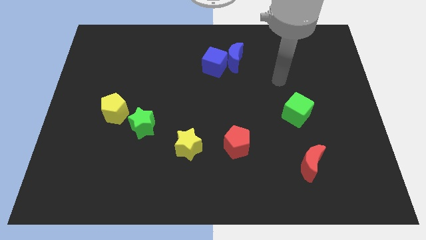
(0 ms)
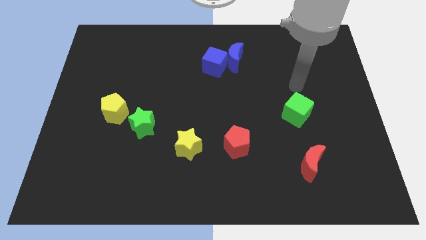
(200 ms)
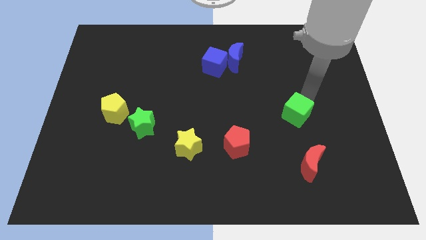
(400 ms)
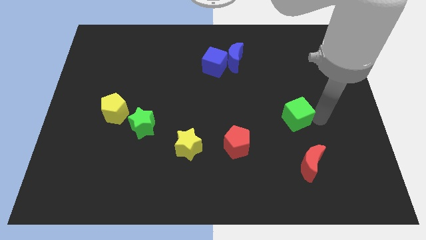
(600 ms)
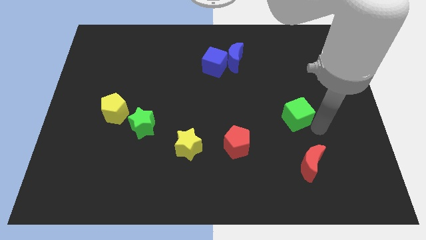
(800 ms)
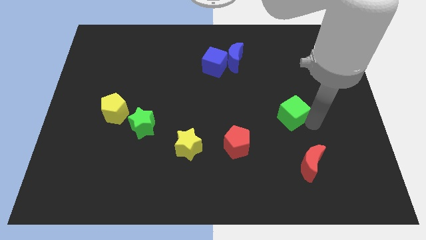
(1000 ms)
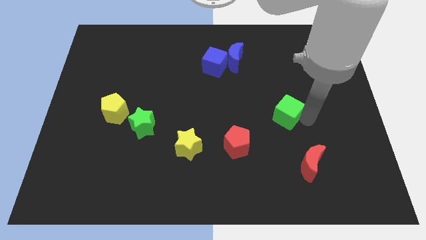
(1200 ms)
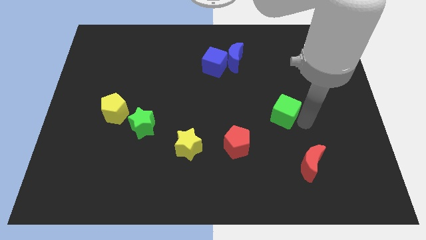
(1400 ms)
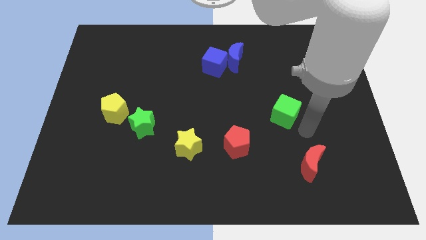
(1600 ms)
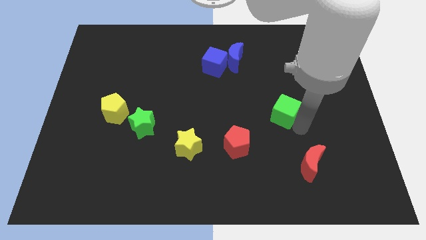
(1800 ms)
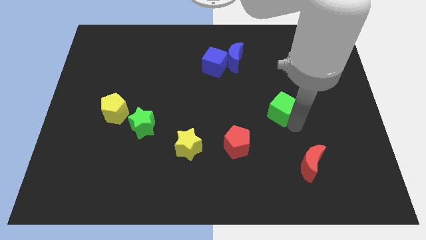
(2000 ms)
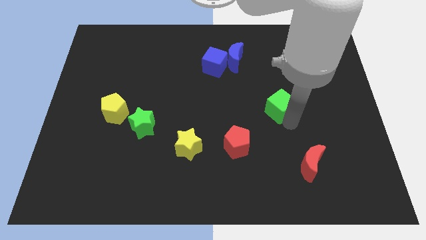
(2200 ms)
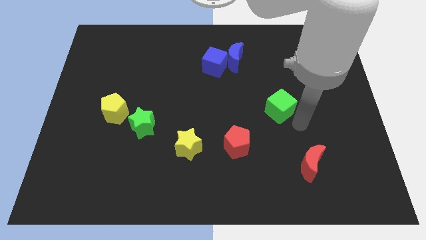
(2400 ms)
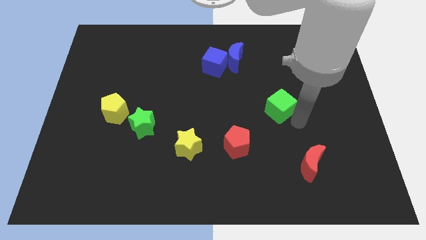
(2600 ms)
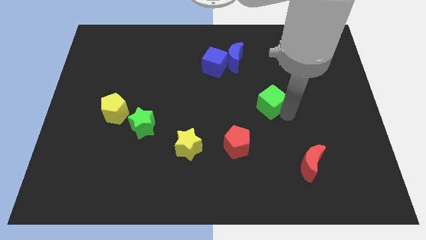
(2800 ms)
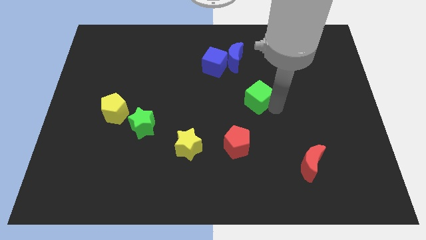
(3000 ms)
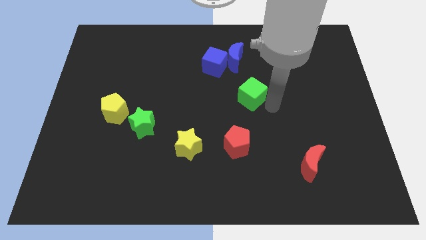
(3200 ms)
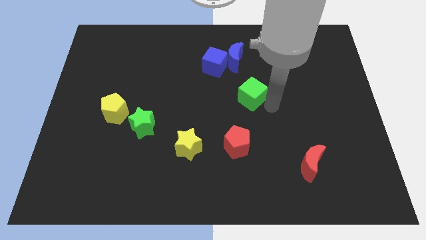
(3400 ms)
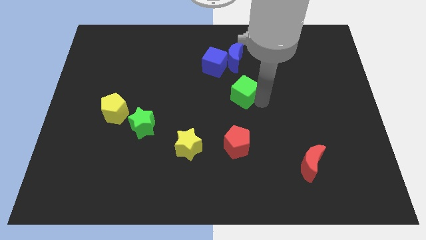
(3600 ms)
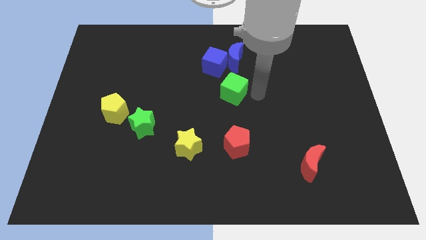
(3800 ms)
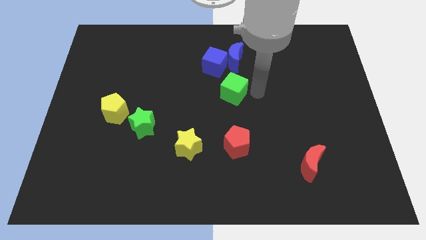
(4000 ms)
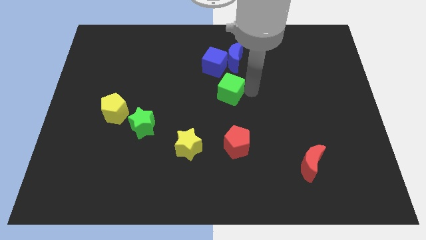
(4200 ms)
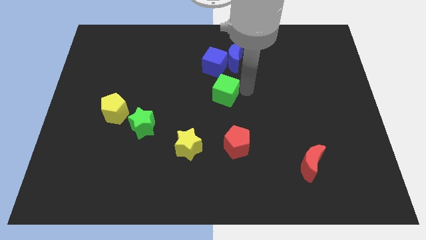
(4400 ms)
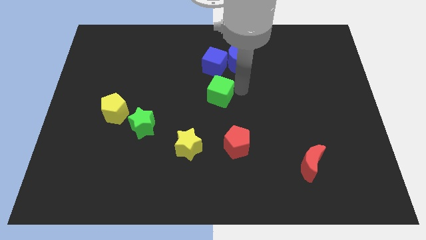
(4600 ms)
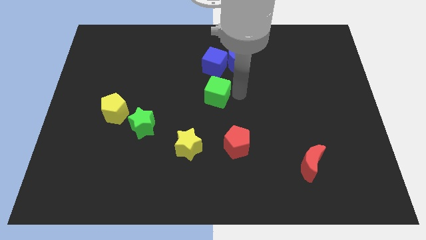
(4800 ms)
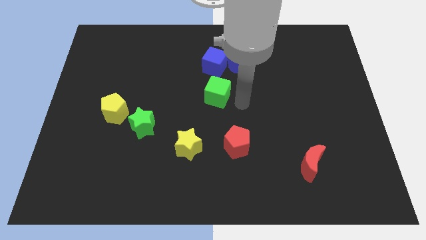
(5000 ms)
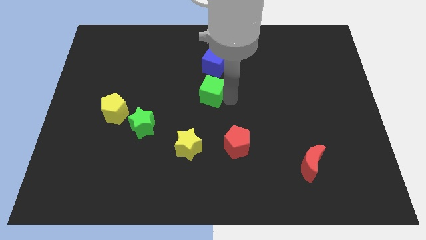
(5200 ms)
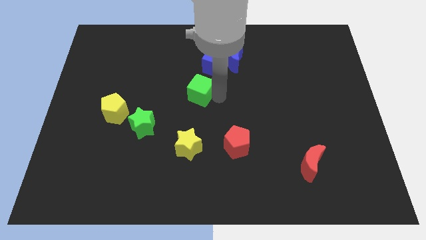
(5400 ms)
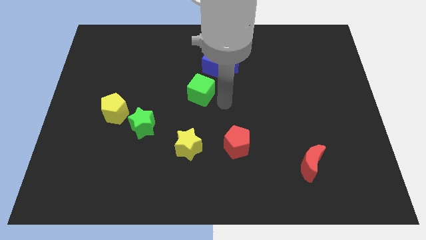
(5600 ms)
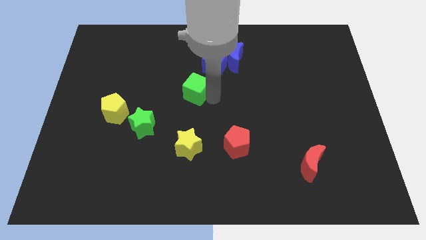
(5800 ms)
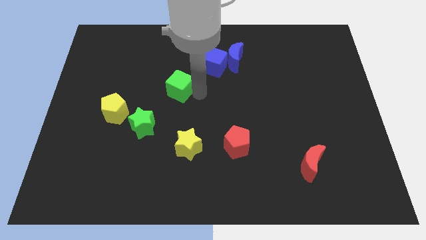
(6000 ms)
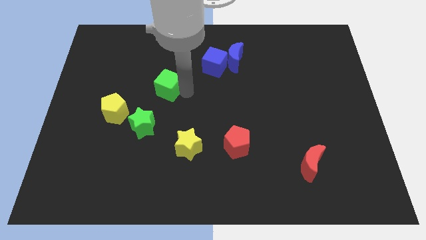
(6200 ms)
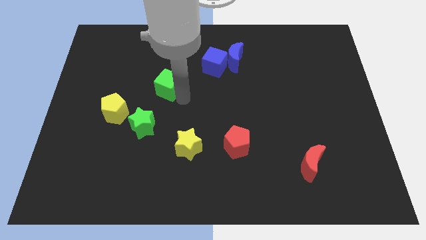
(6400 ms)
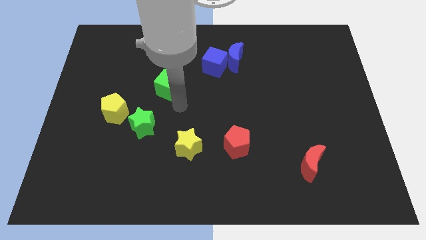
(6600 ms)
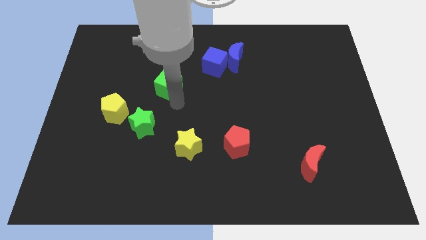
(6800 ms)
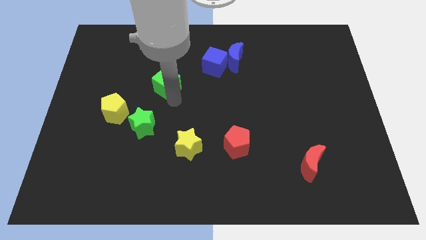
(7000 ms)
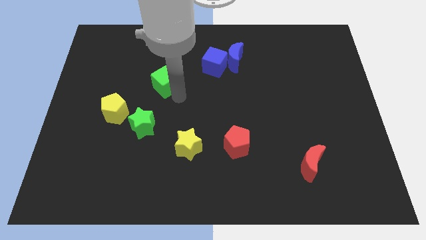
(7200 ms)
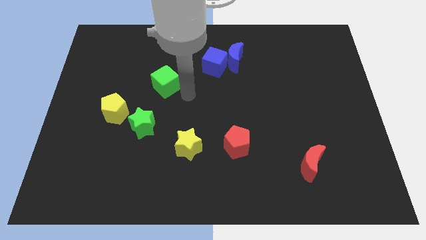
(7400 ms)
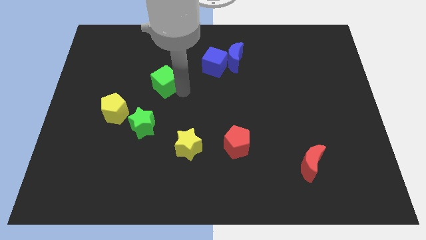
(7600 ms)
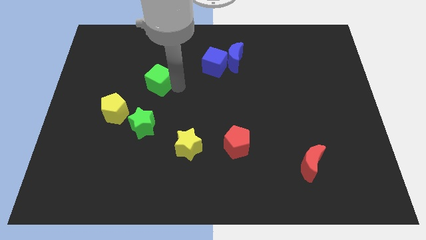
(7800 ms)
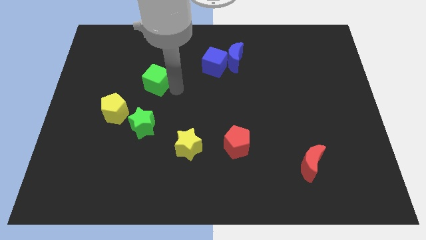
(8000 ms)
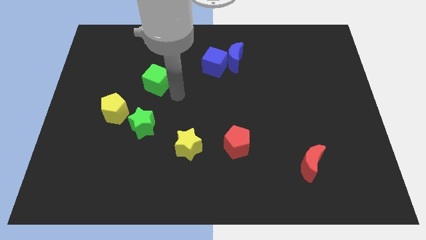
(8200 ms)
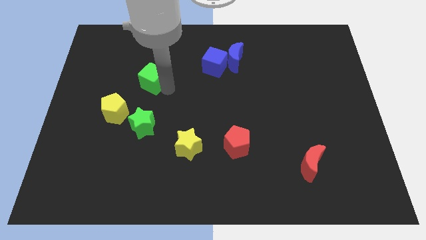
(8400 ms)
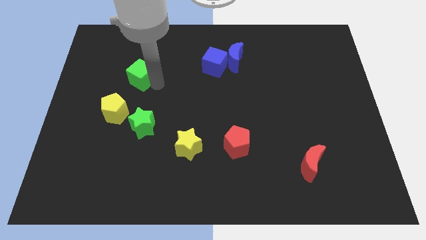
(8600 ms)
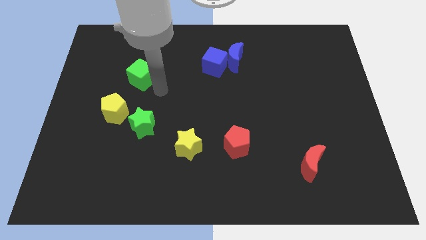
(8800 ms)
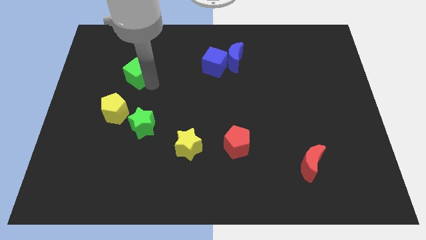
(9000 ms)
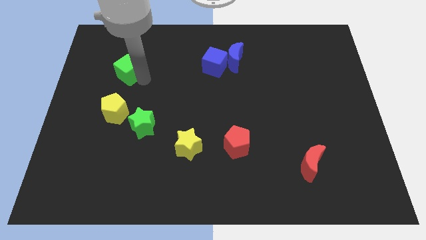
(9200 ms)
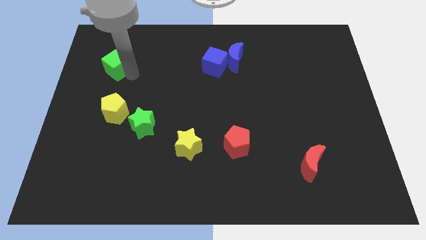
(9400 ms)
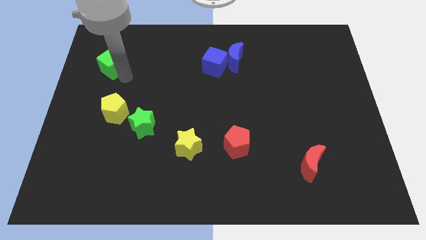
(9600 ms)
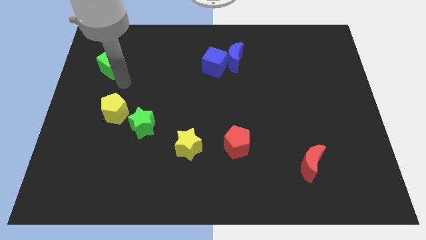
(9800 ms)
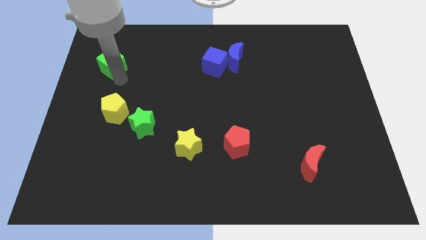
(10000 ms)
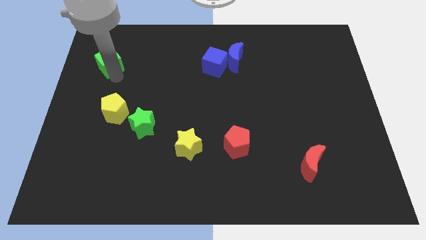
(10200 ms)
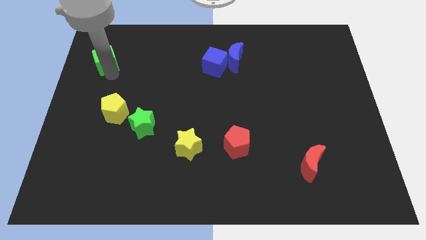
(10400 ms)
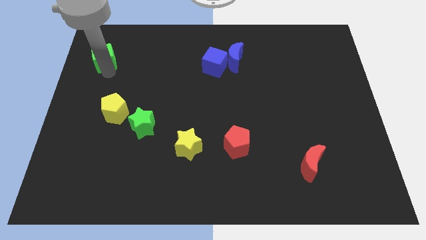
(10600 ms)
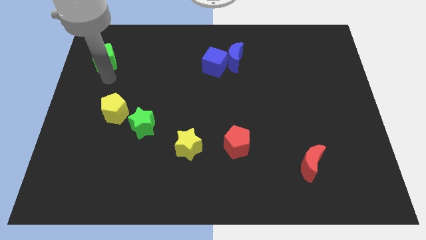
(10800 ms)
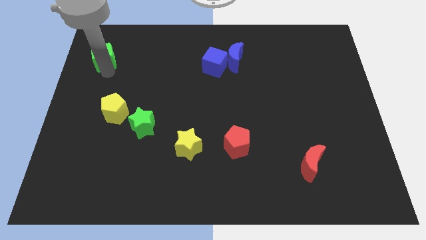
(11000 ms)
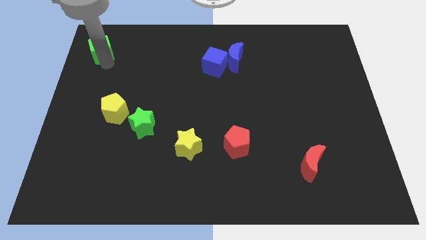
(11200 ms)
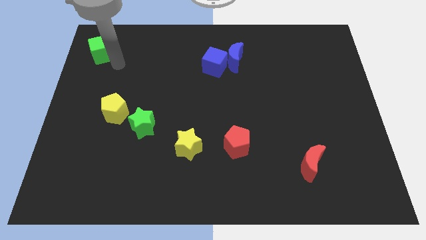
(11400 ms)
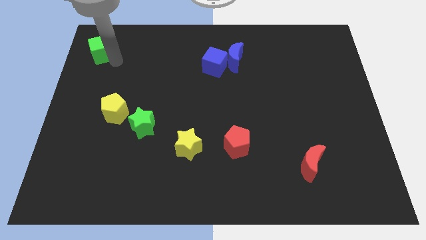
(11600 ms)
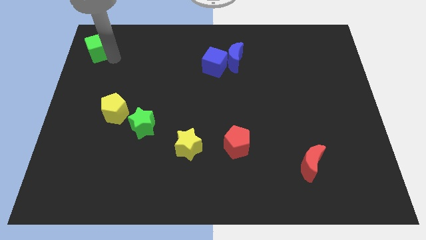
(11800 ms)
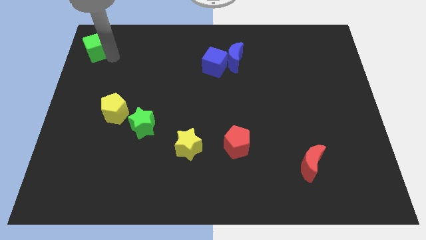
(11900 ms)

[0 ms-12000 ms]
slide the green cube to the top left of the board
